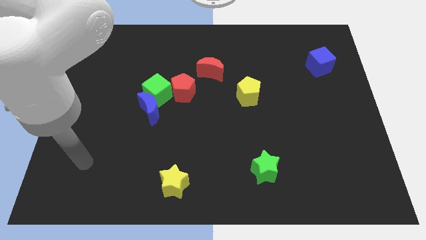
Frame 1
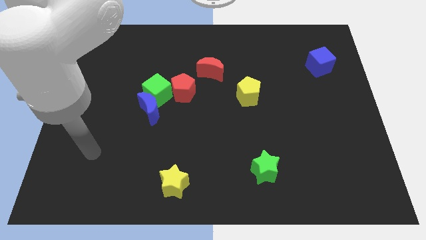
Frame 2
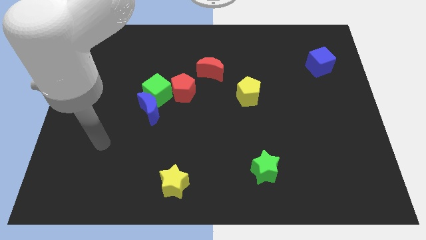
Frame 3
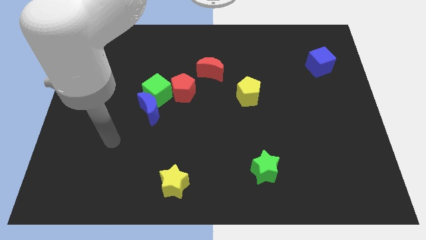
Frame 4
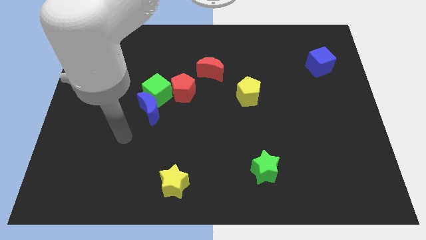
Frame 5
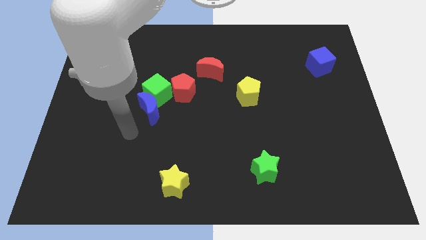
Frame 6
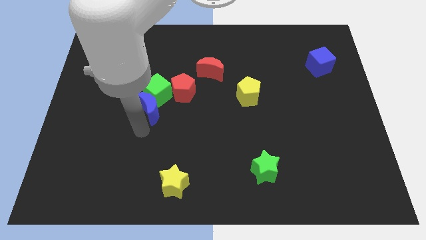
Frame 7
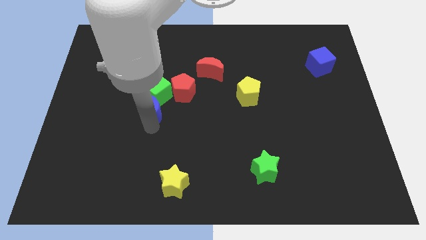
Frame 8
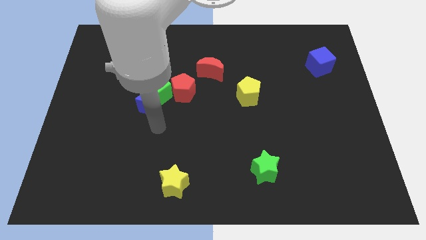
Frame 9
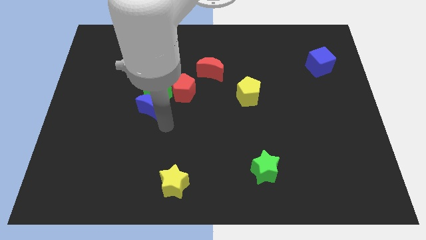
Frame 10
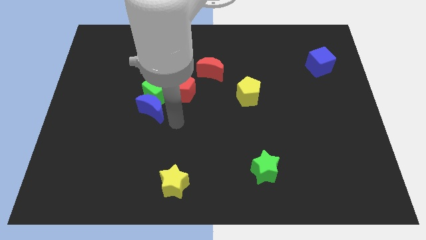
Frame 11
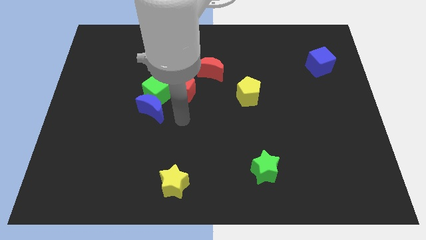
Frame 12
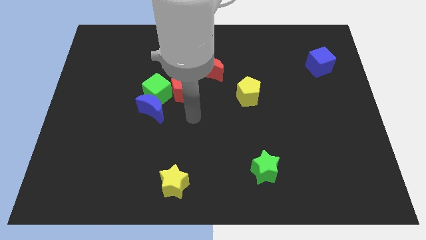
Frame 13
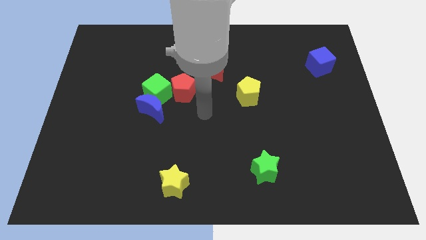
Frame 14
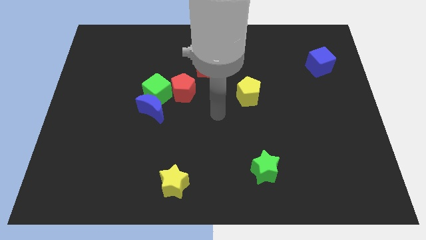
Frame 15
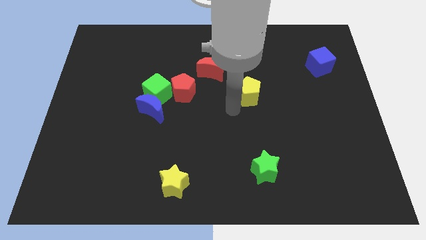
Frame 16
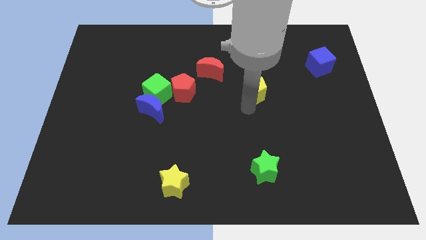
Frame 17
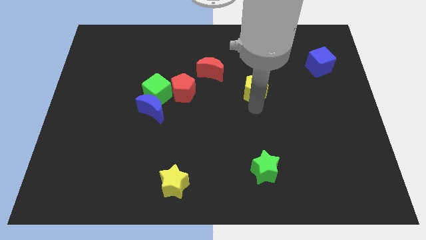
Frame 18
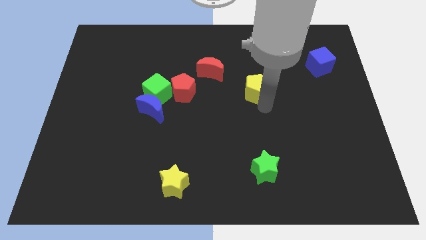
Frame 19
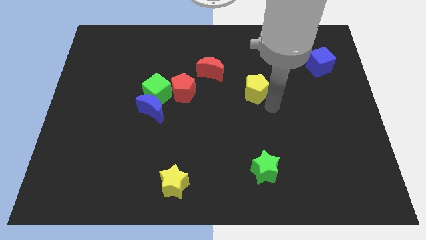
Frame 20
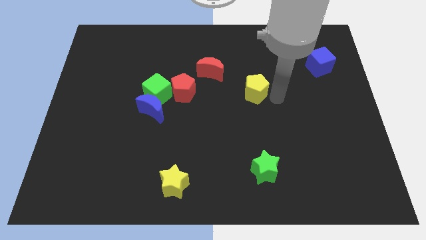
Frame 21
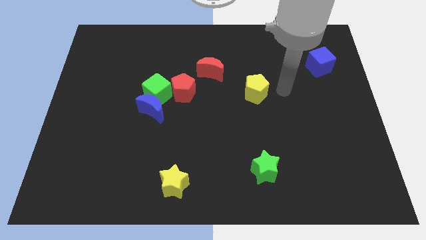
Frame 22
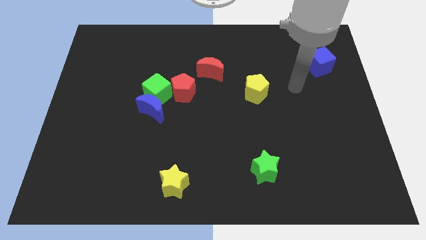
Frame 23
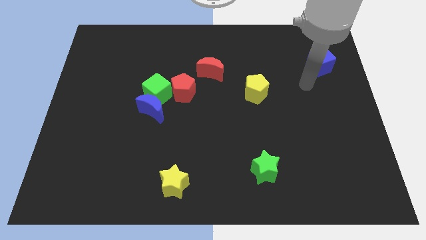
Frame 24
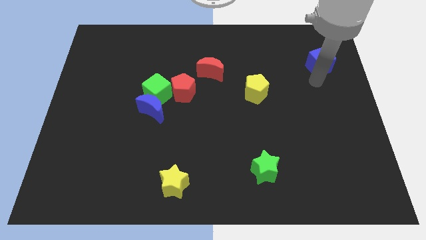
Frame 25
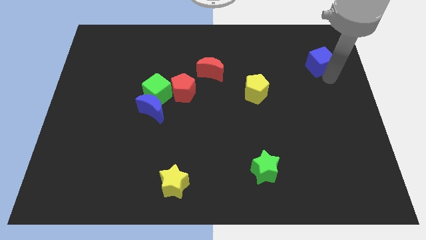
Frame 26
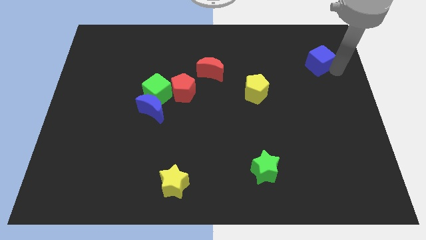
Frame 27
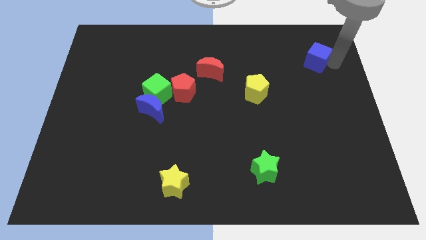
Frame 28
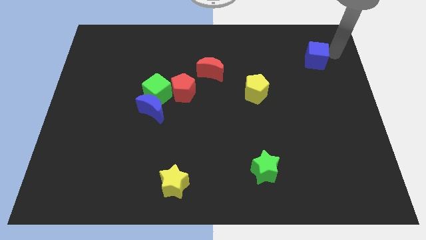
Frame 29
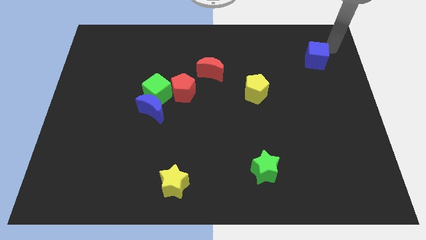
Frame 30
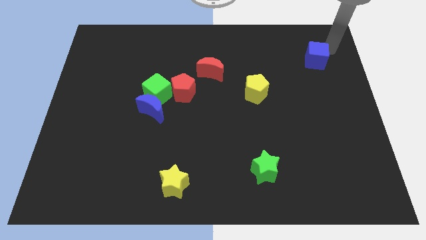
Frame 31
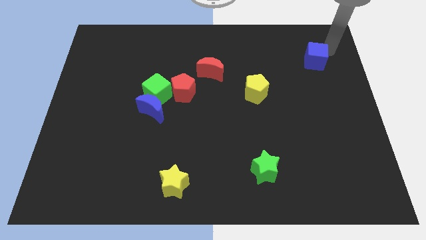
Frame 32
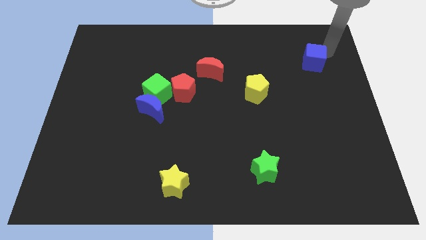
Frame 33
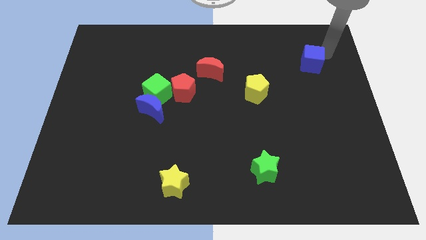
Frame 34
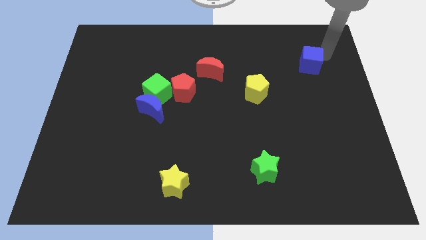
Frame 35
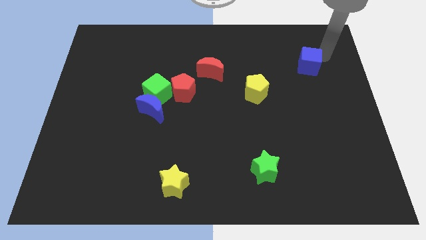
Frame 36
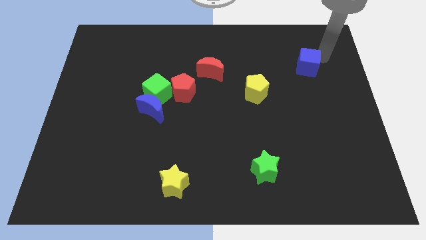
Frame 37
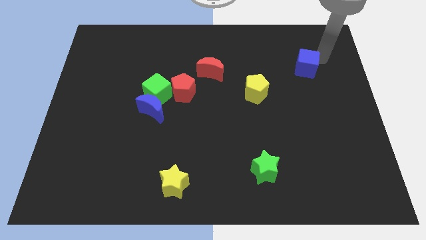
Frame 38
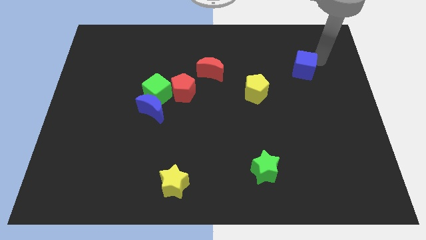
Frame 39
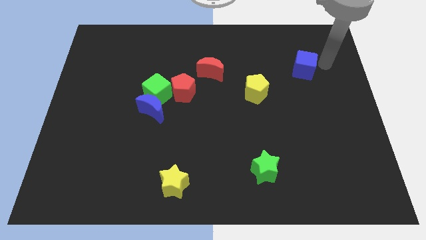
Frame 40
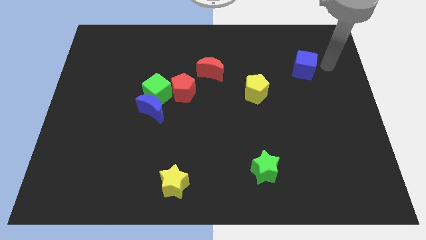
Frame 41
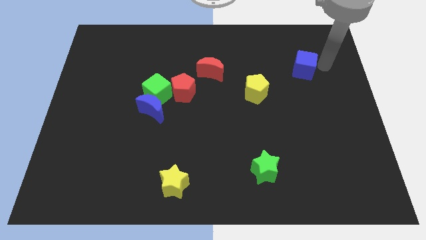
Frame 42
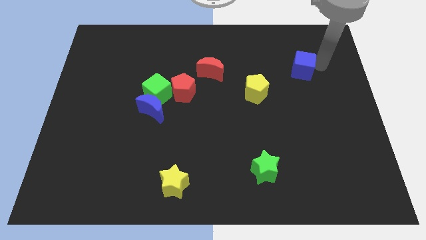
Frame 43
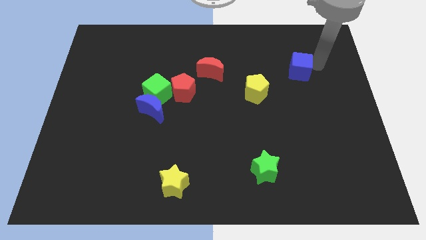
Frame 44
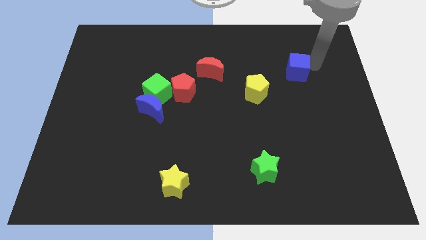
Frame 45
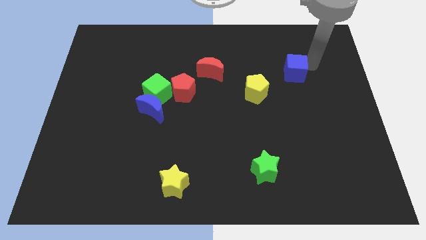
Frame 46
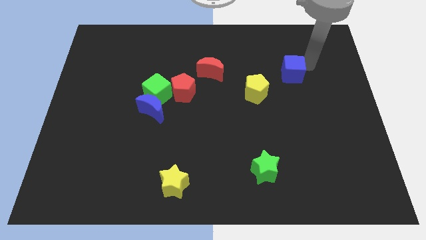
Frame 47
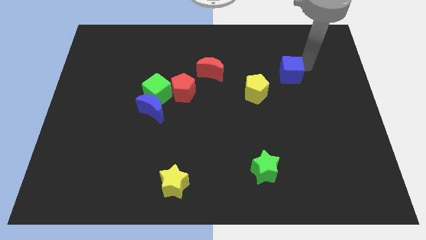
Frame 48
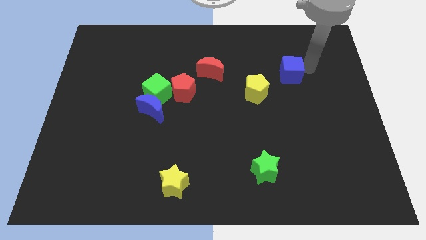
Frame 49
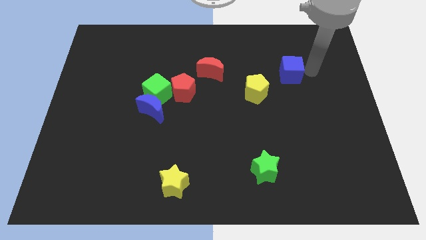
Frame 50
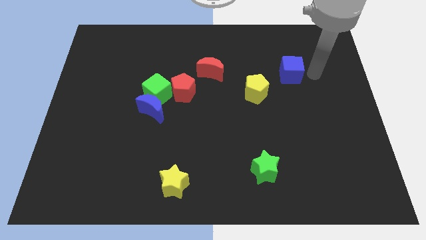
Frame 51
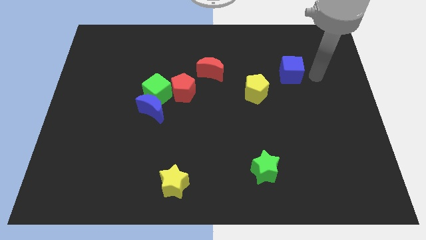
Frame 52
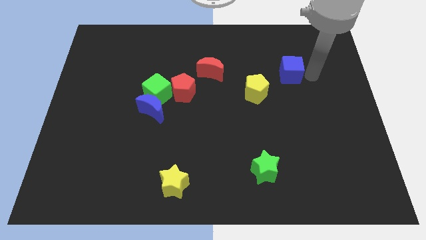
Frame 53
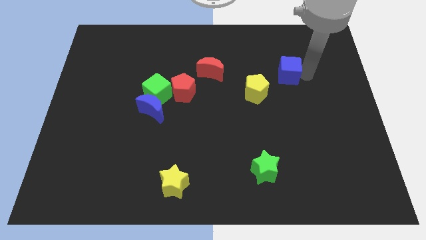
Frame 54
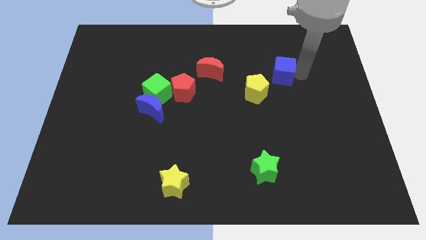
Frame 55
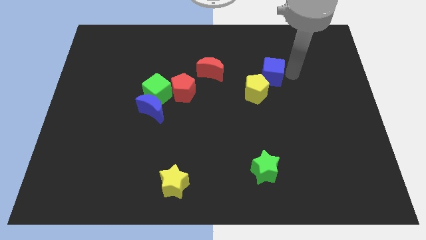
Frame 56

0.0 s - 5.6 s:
slide the blue cube to the right side of the red moon

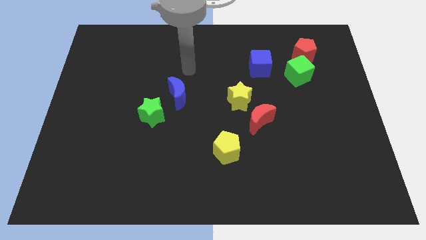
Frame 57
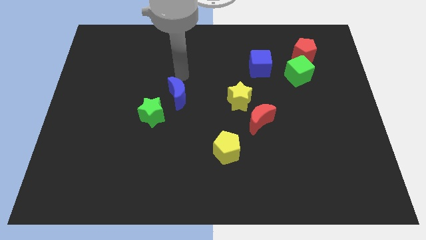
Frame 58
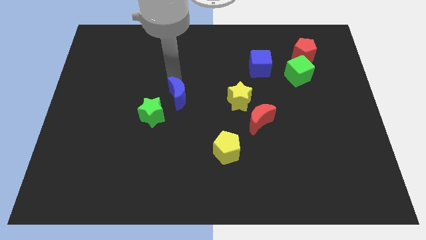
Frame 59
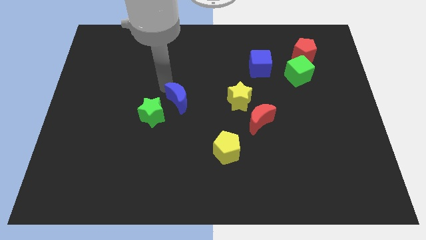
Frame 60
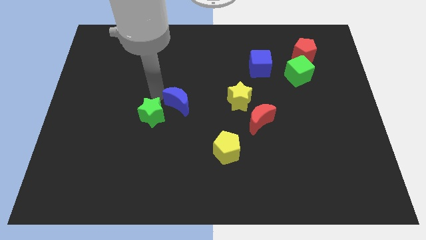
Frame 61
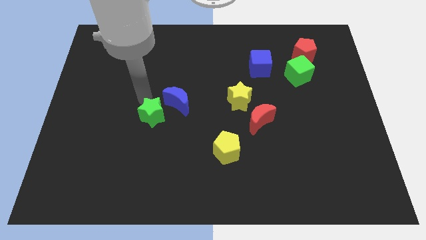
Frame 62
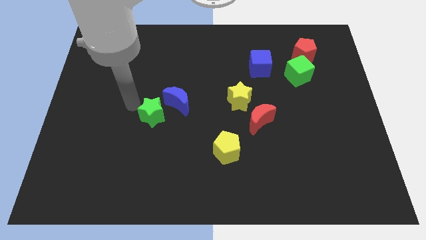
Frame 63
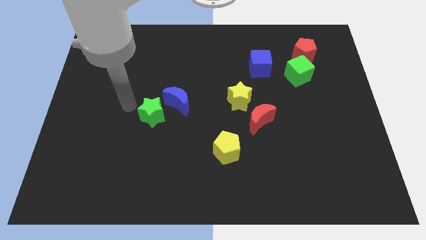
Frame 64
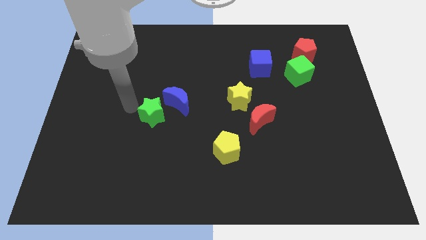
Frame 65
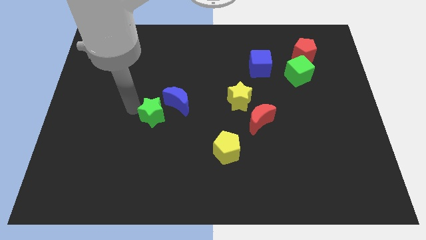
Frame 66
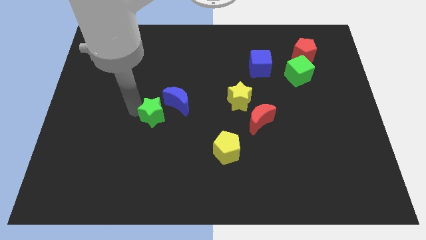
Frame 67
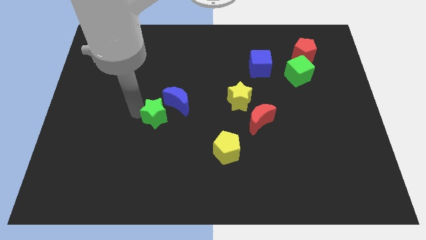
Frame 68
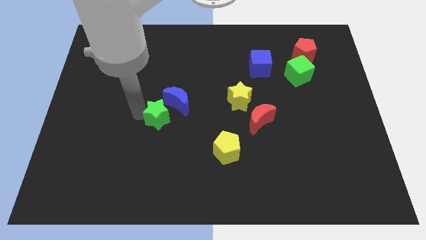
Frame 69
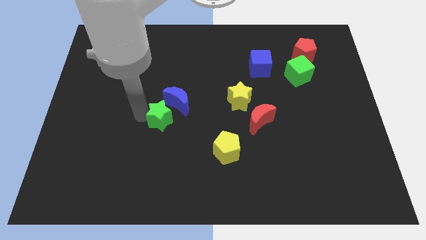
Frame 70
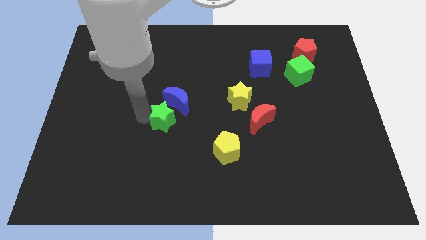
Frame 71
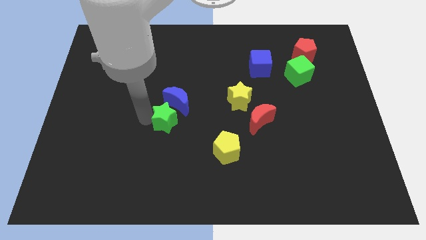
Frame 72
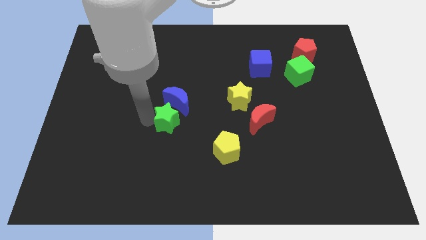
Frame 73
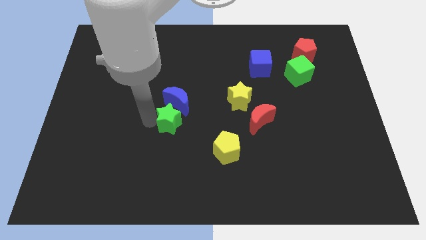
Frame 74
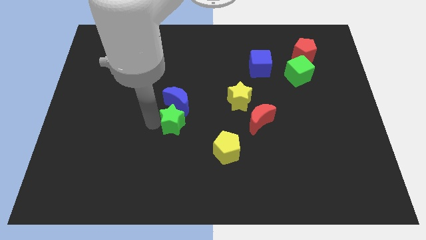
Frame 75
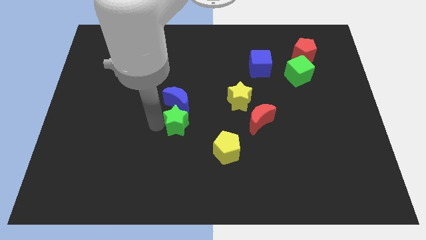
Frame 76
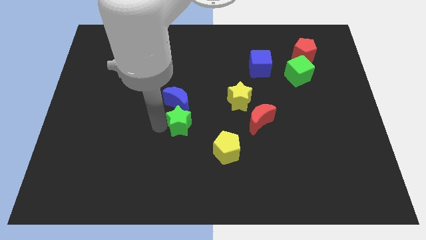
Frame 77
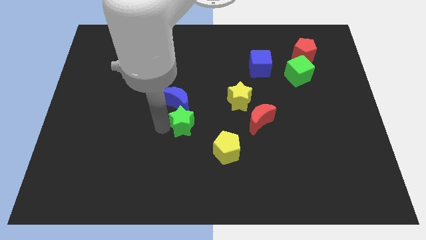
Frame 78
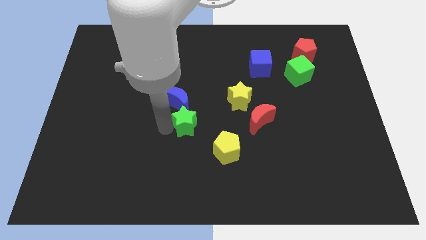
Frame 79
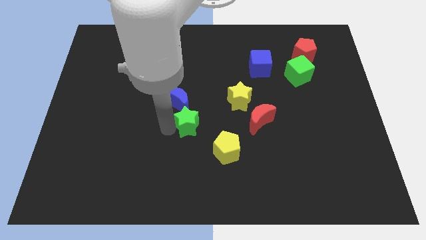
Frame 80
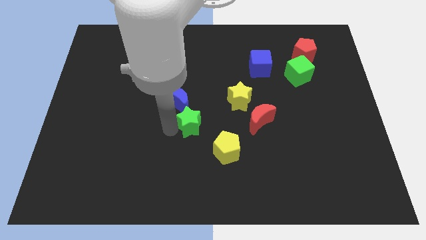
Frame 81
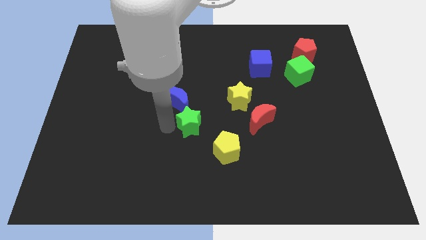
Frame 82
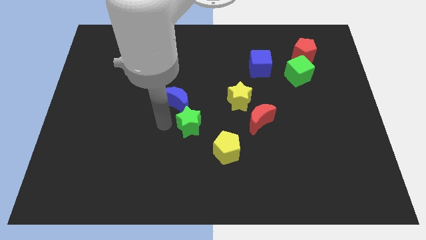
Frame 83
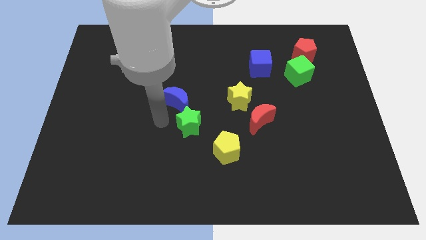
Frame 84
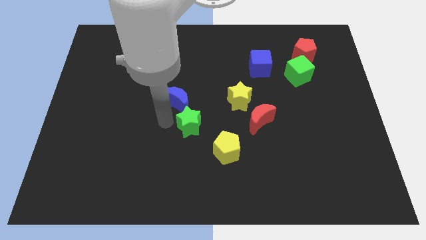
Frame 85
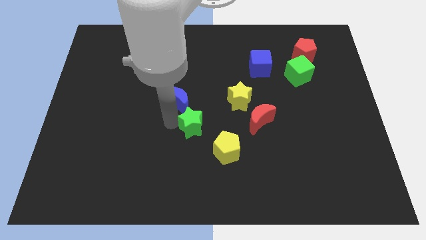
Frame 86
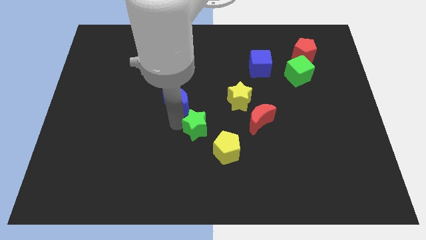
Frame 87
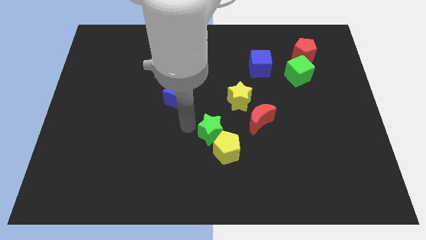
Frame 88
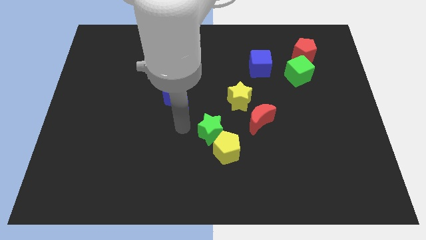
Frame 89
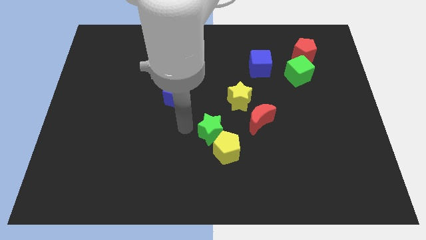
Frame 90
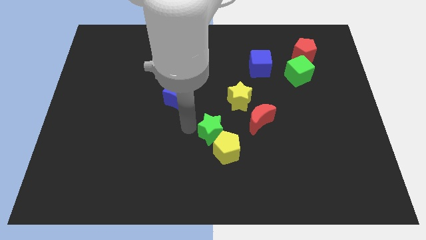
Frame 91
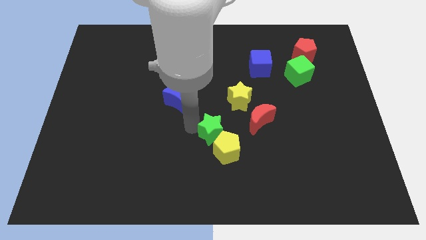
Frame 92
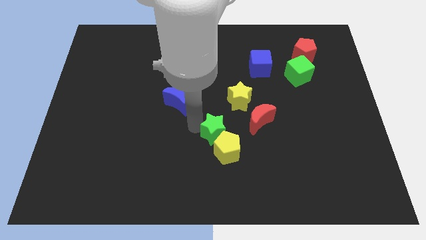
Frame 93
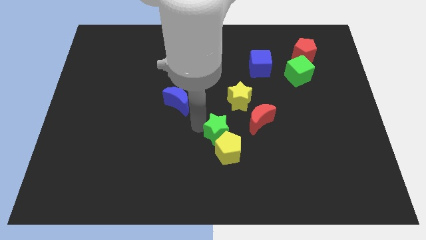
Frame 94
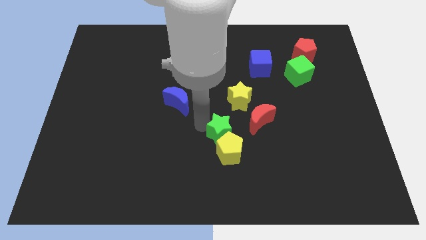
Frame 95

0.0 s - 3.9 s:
slide the green star to the bottom side of the yellow star
